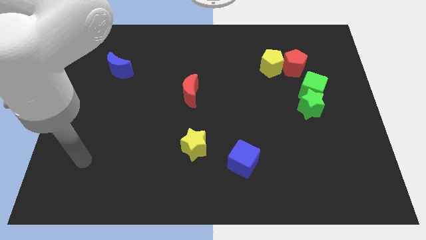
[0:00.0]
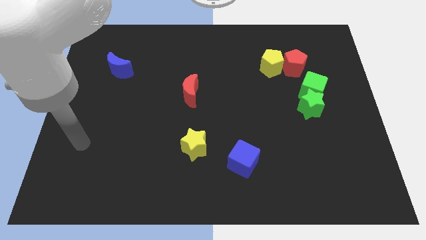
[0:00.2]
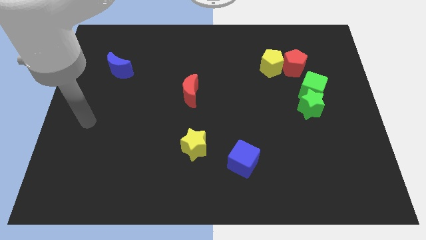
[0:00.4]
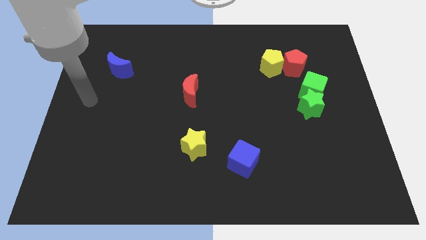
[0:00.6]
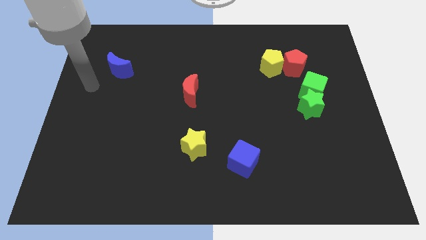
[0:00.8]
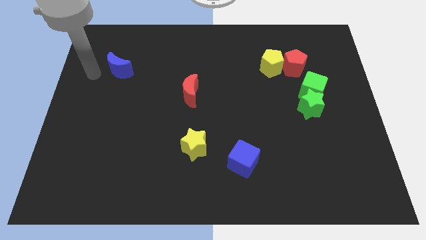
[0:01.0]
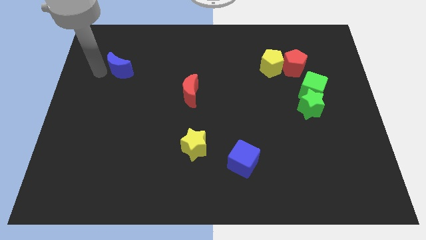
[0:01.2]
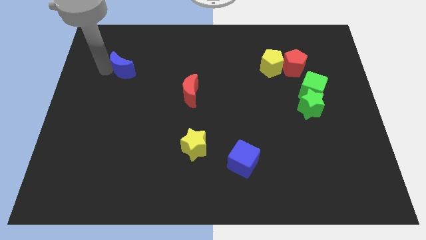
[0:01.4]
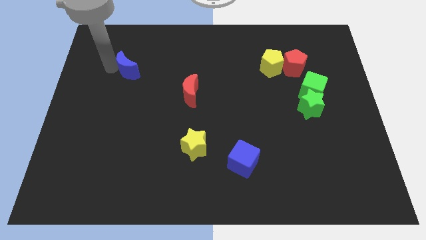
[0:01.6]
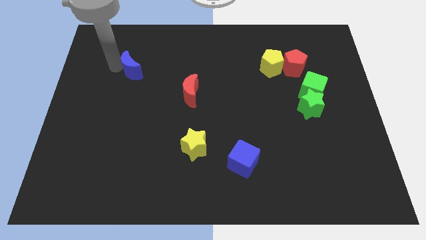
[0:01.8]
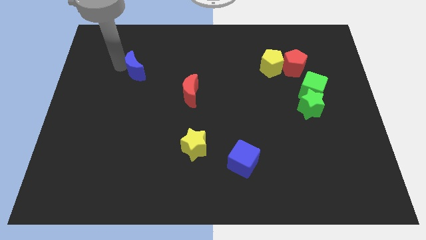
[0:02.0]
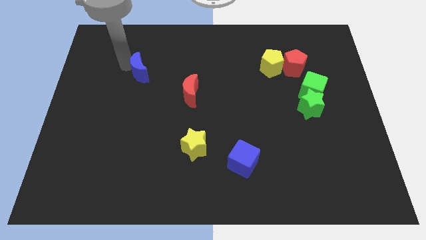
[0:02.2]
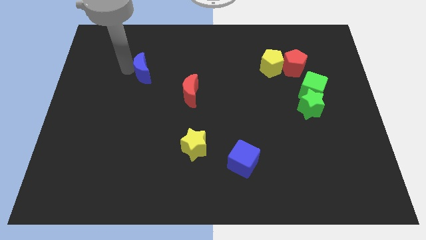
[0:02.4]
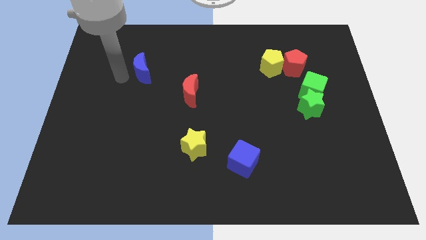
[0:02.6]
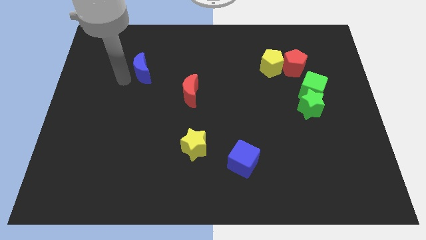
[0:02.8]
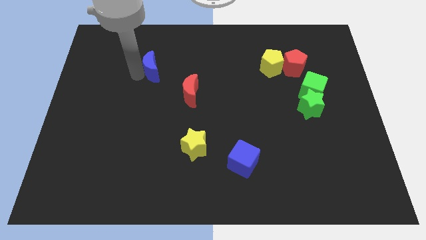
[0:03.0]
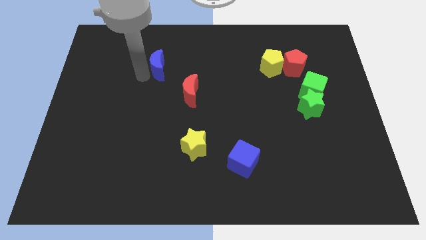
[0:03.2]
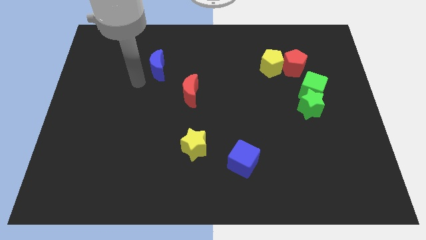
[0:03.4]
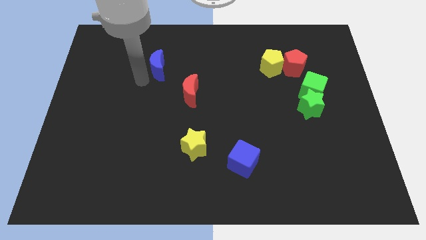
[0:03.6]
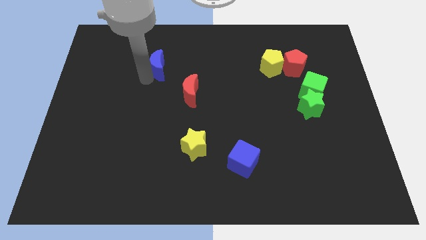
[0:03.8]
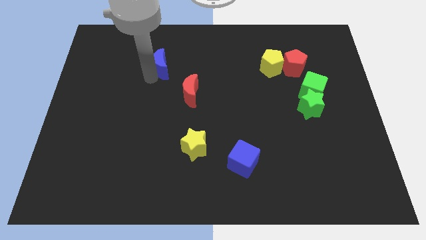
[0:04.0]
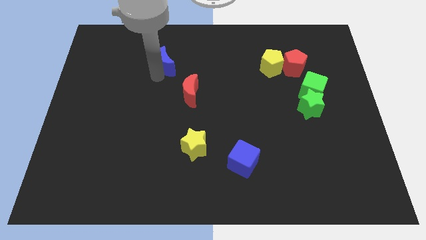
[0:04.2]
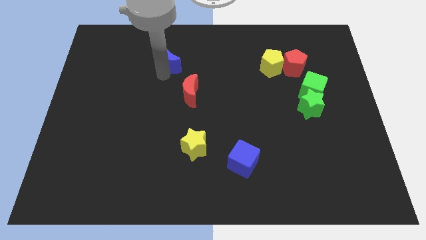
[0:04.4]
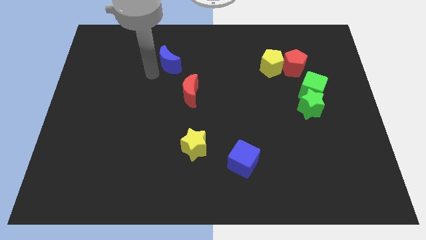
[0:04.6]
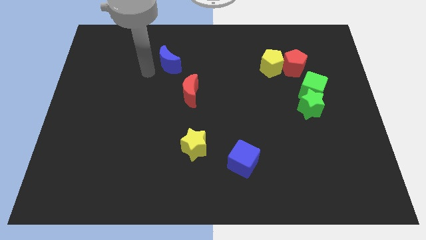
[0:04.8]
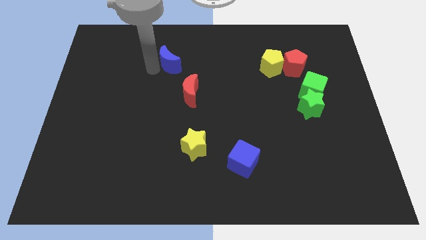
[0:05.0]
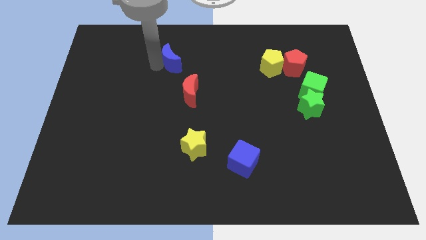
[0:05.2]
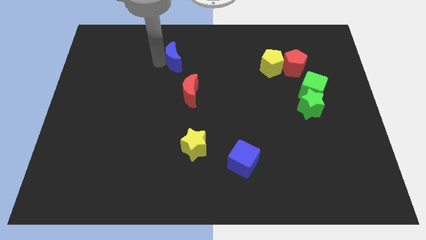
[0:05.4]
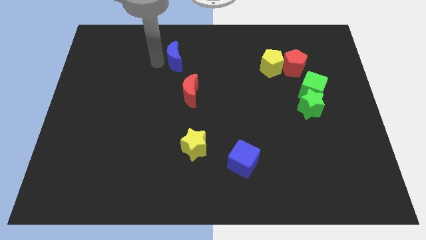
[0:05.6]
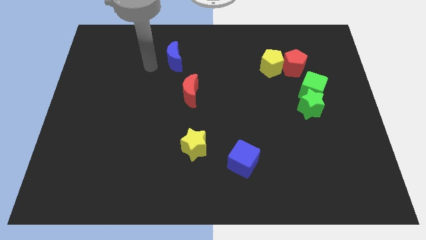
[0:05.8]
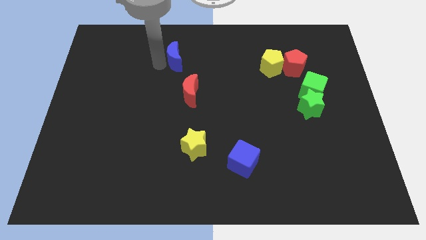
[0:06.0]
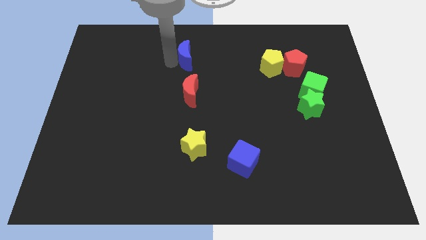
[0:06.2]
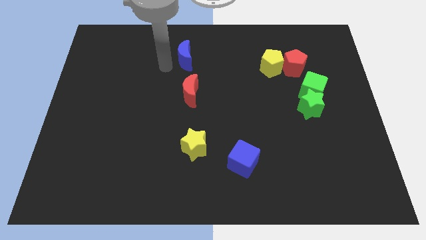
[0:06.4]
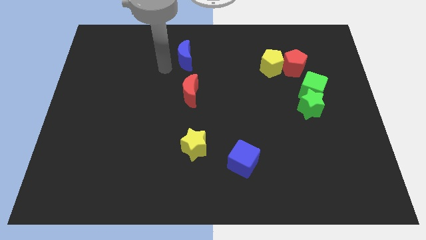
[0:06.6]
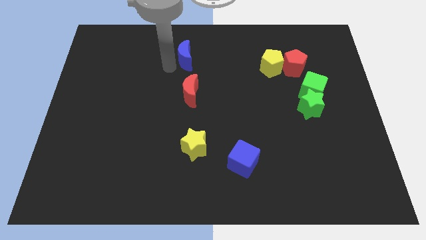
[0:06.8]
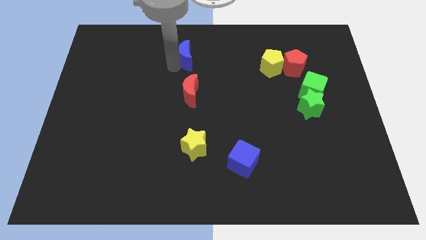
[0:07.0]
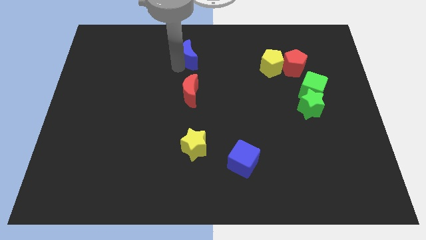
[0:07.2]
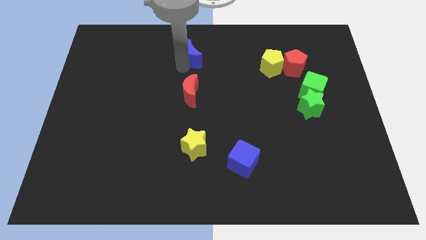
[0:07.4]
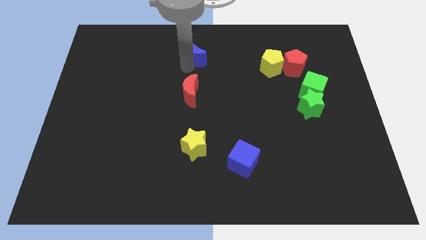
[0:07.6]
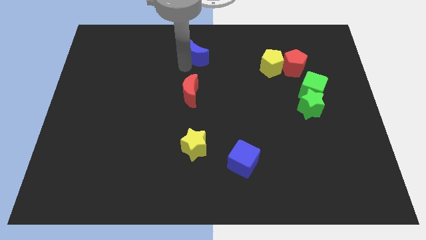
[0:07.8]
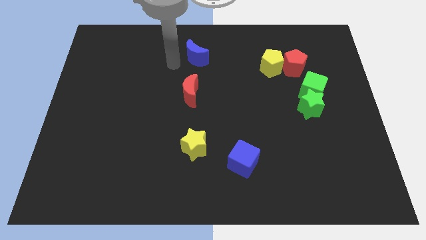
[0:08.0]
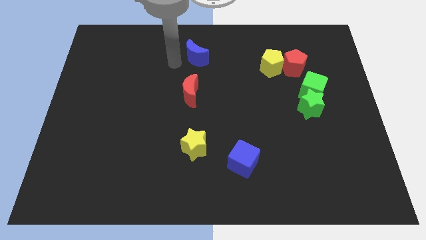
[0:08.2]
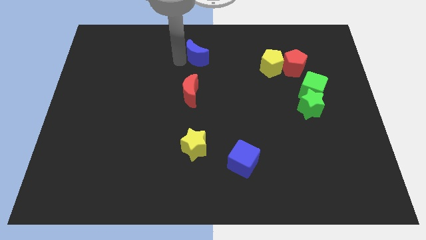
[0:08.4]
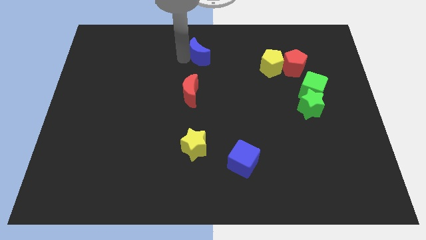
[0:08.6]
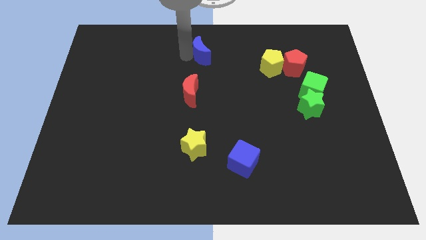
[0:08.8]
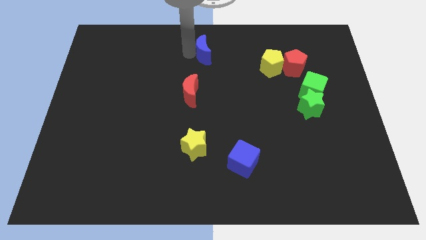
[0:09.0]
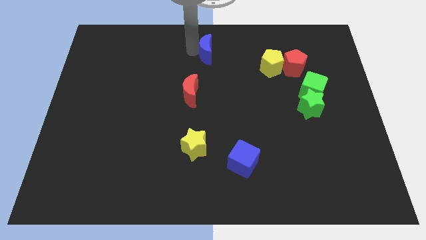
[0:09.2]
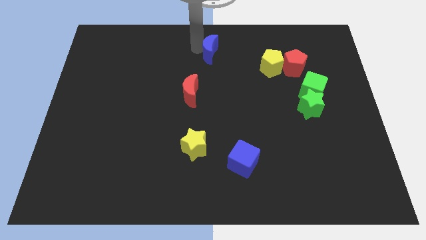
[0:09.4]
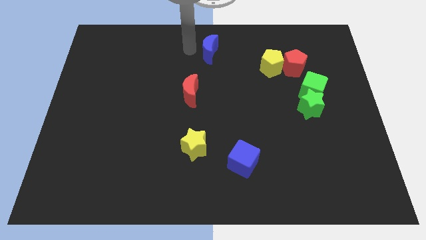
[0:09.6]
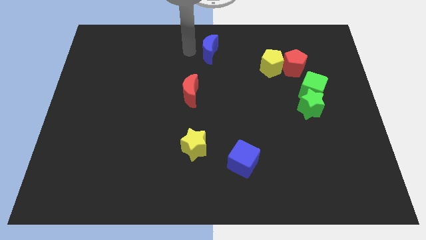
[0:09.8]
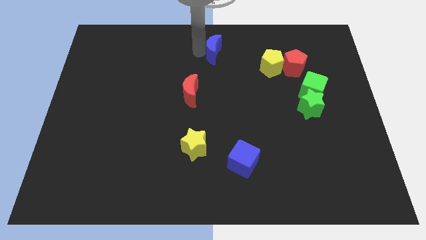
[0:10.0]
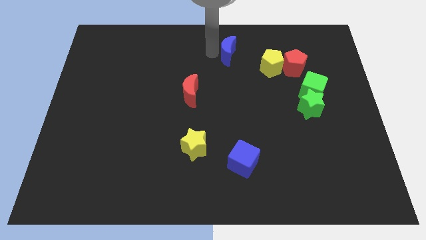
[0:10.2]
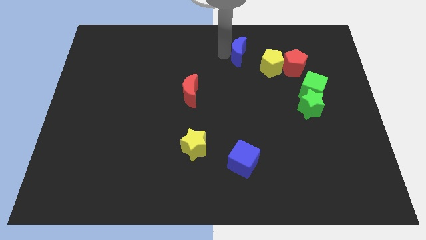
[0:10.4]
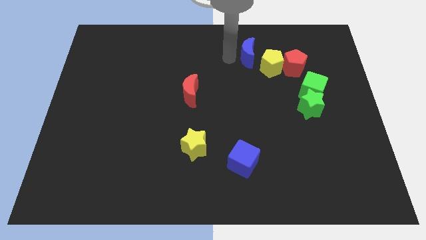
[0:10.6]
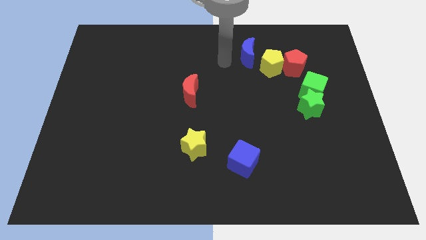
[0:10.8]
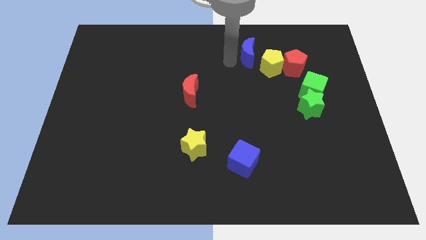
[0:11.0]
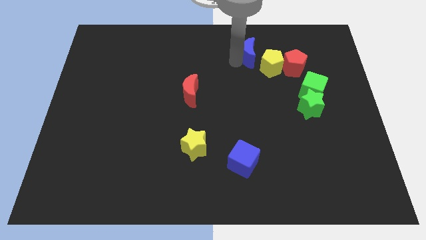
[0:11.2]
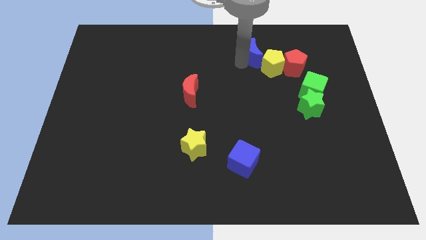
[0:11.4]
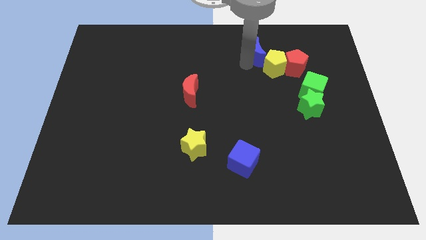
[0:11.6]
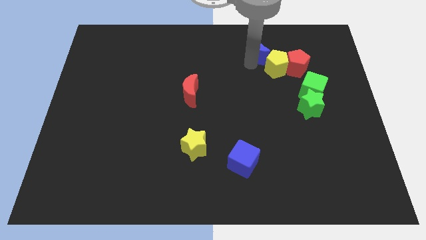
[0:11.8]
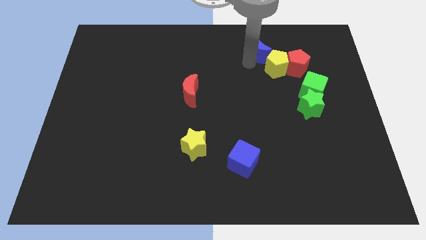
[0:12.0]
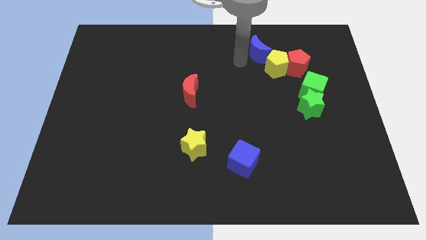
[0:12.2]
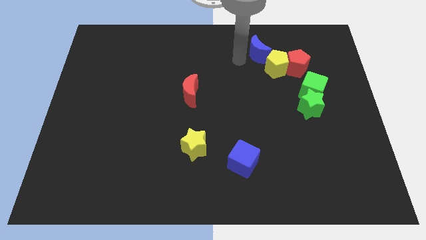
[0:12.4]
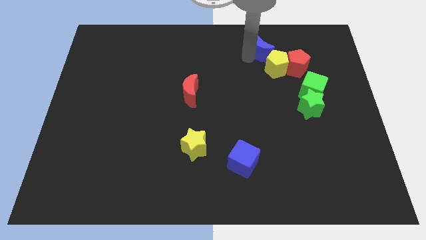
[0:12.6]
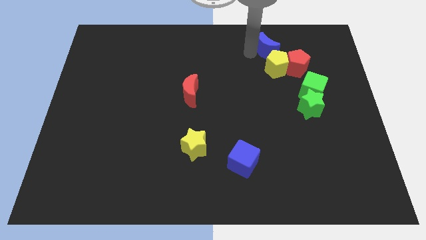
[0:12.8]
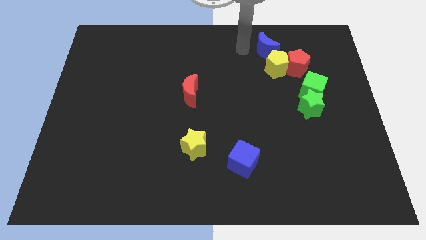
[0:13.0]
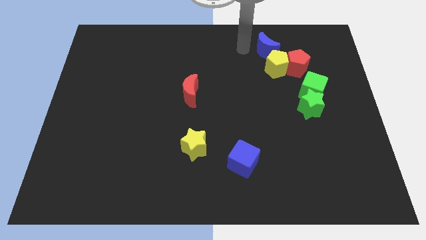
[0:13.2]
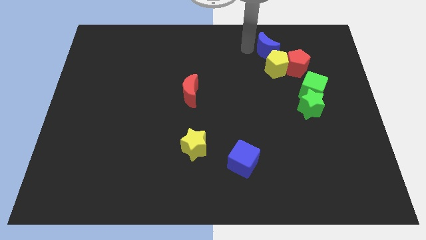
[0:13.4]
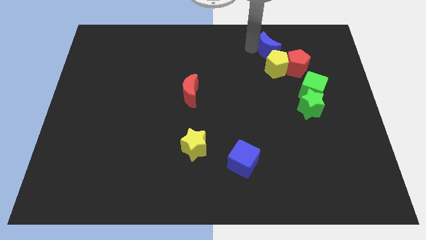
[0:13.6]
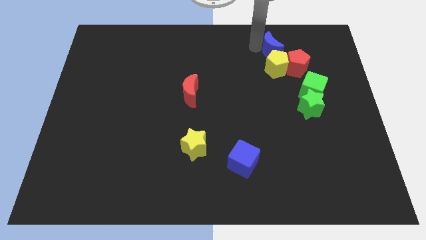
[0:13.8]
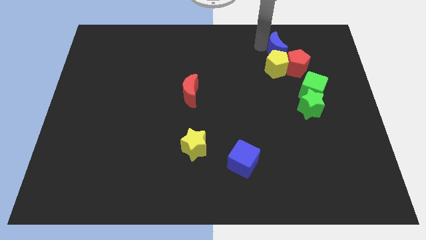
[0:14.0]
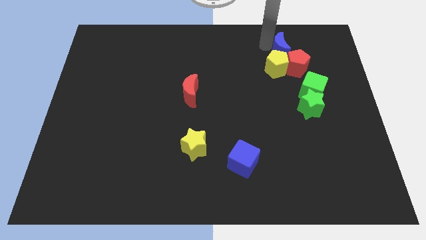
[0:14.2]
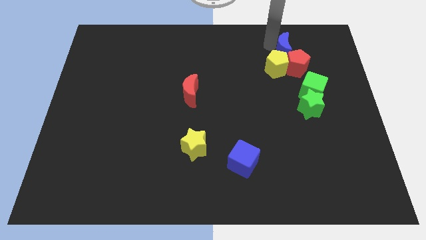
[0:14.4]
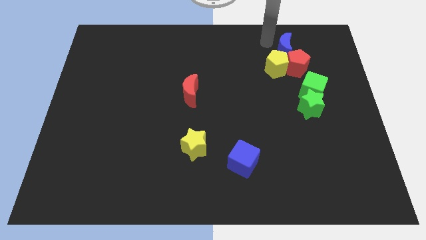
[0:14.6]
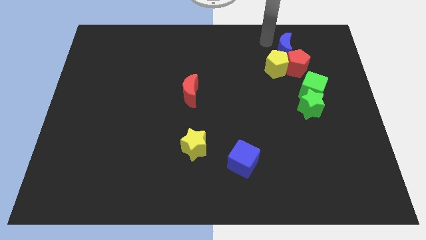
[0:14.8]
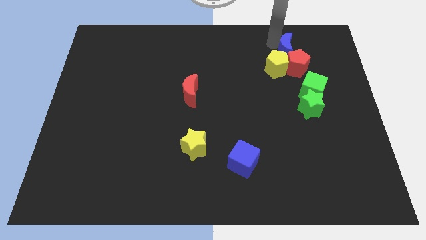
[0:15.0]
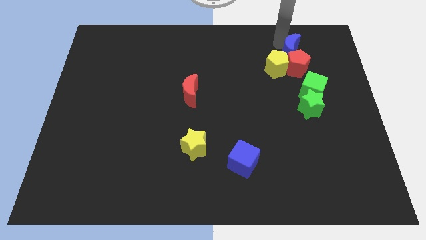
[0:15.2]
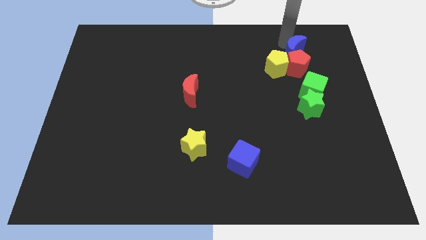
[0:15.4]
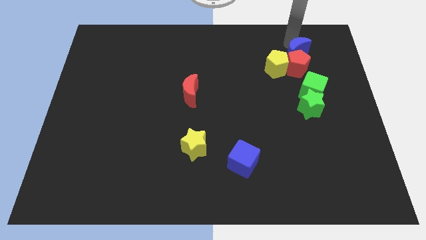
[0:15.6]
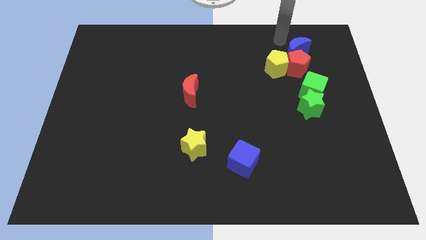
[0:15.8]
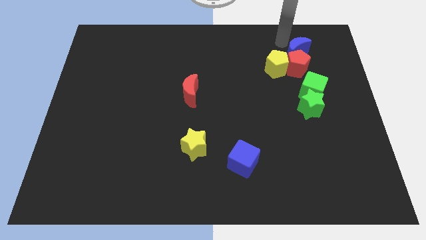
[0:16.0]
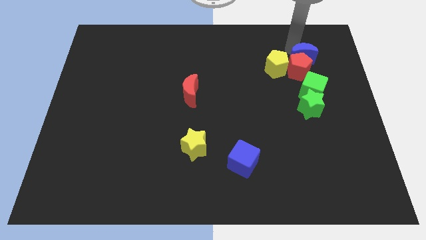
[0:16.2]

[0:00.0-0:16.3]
move the blue moon right of the yellow pentagon
